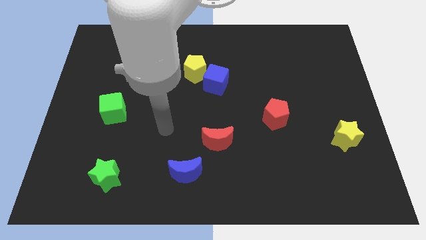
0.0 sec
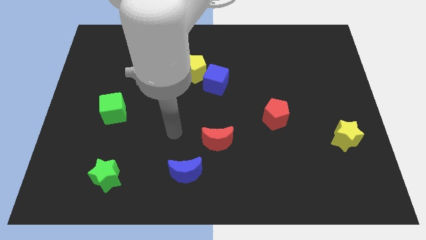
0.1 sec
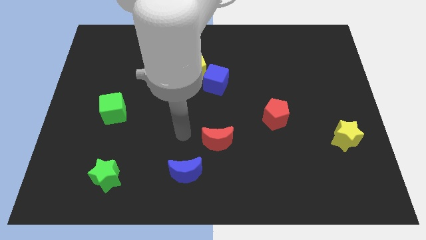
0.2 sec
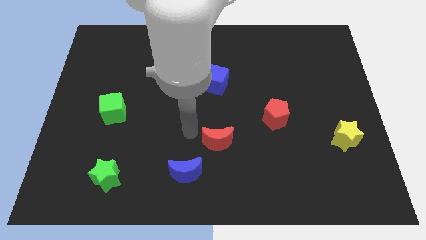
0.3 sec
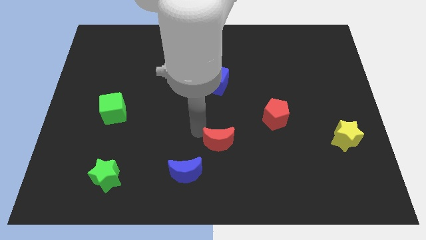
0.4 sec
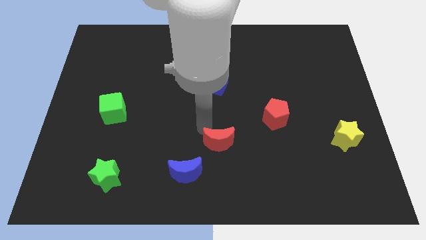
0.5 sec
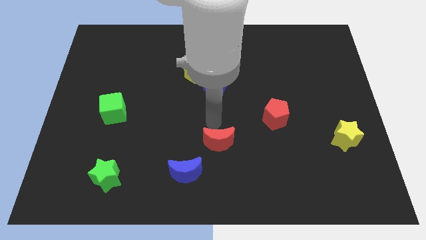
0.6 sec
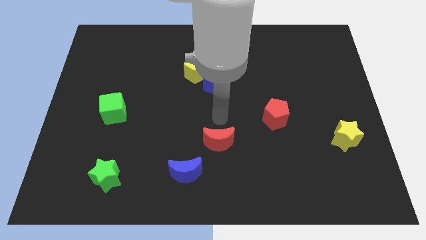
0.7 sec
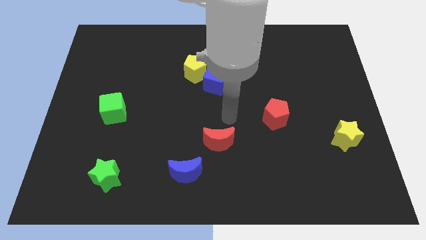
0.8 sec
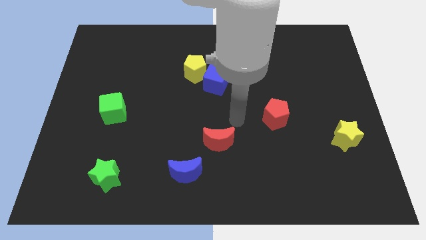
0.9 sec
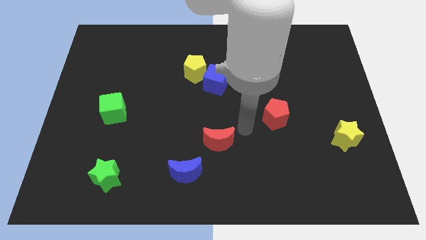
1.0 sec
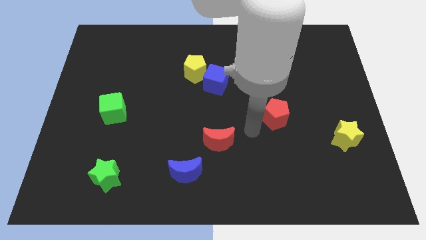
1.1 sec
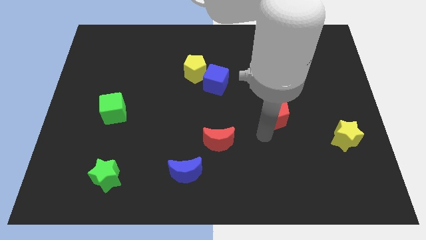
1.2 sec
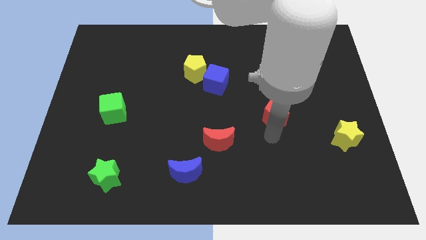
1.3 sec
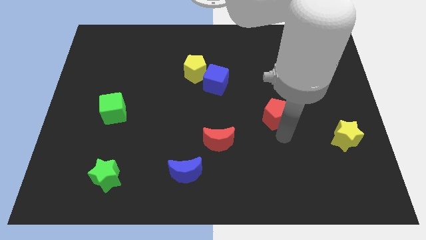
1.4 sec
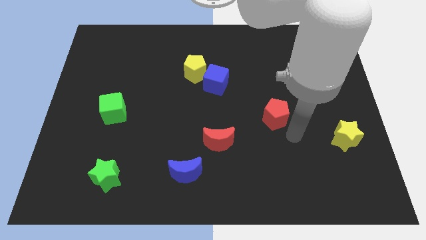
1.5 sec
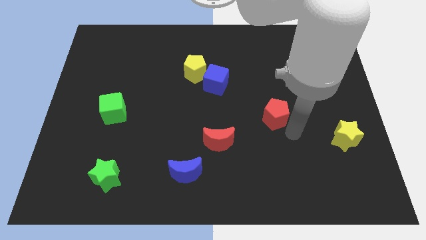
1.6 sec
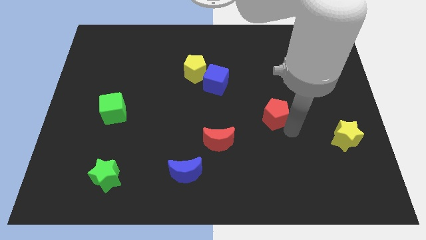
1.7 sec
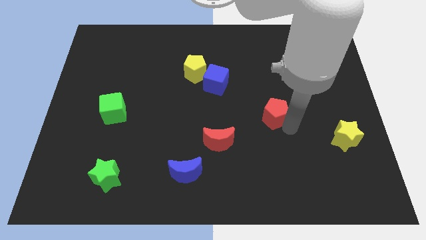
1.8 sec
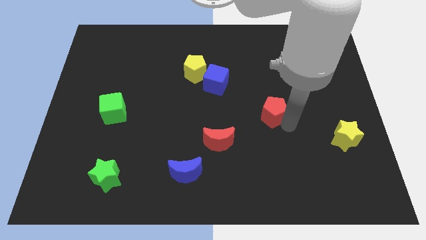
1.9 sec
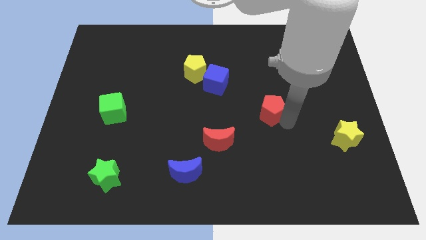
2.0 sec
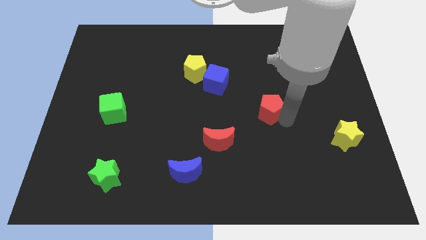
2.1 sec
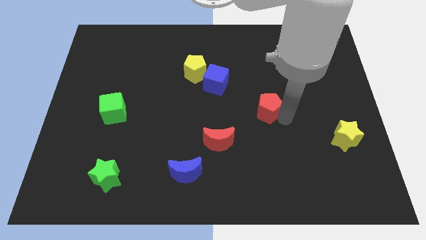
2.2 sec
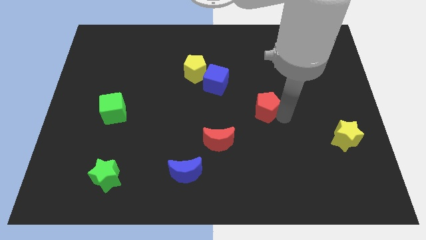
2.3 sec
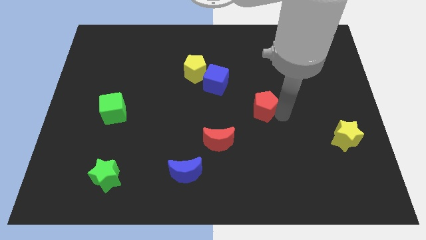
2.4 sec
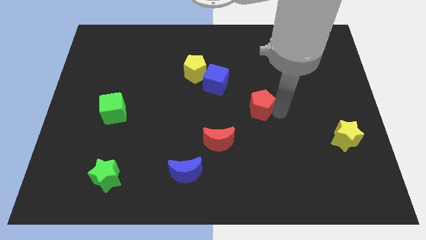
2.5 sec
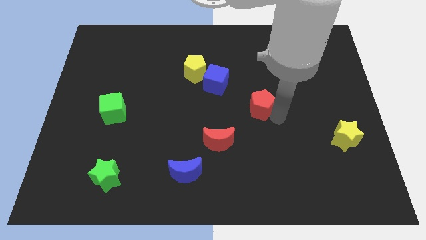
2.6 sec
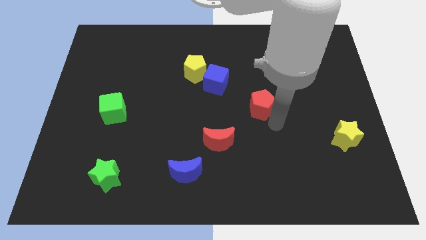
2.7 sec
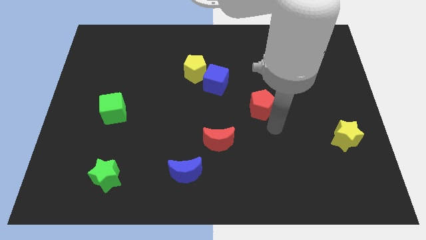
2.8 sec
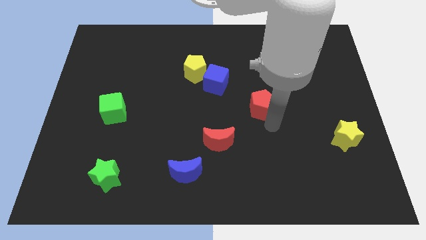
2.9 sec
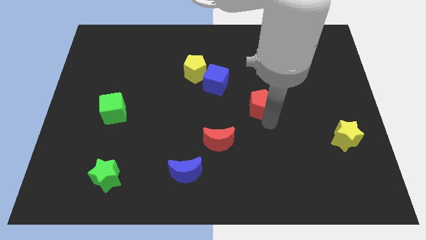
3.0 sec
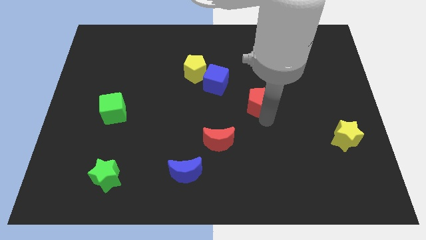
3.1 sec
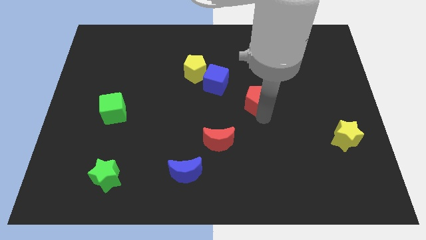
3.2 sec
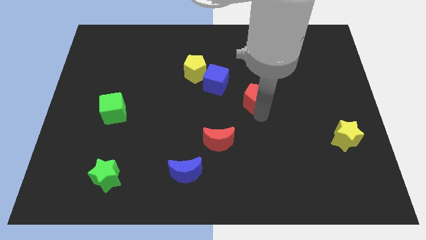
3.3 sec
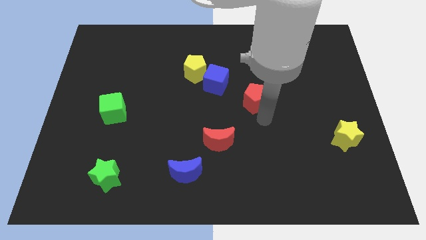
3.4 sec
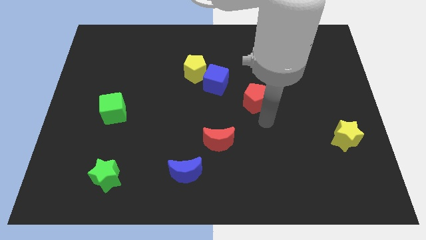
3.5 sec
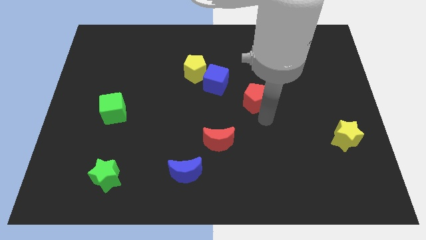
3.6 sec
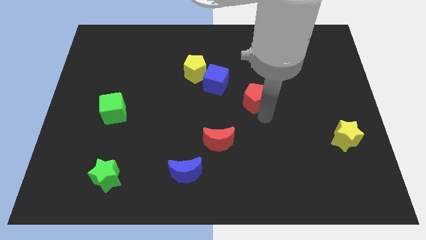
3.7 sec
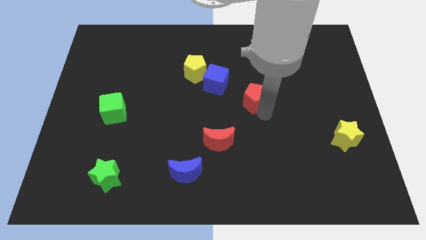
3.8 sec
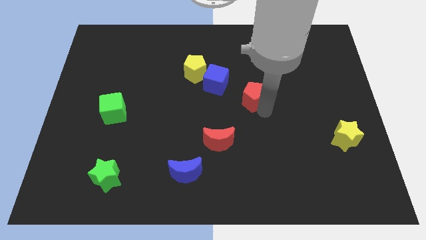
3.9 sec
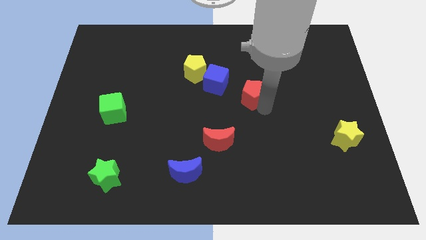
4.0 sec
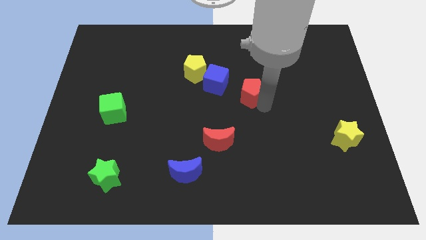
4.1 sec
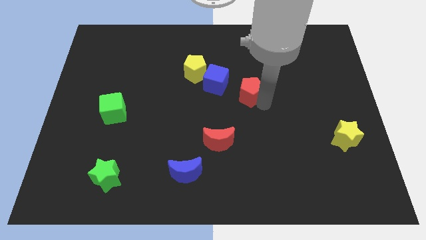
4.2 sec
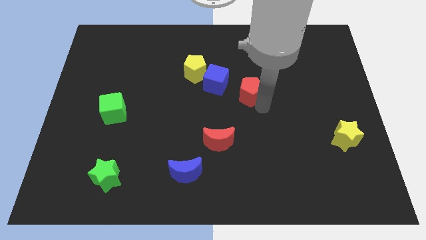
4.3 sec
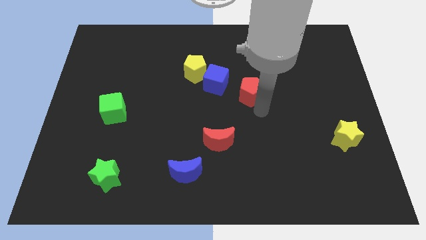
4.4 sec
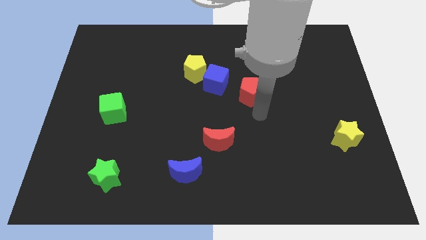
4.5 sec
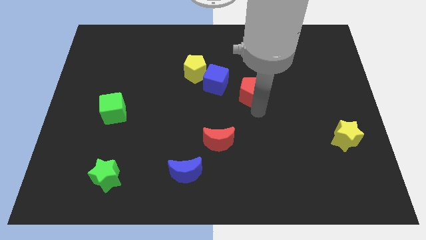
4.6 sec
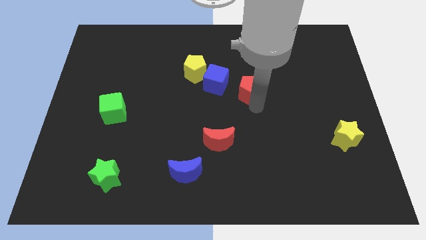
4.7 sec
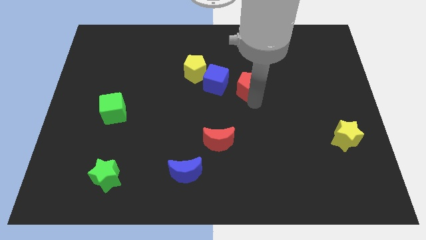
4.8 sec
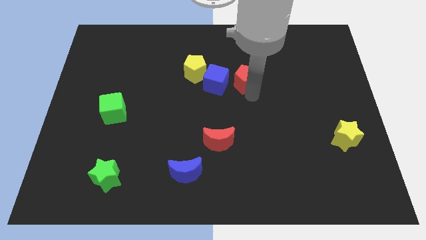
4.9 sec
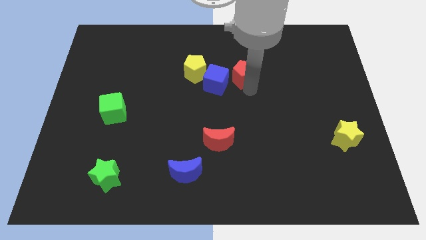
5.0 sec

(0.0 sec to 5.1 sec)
slide the red pentagon to the top right of the blue cube

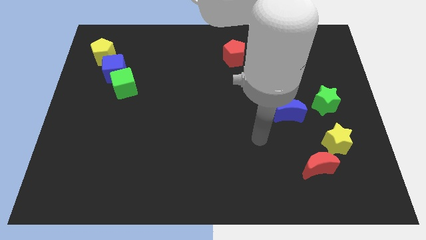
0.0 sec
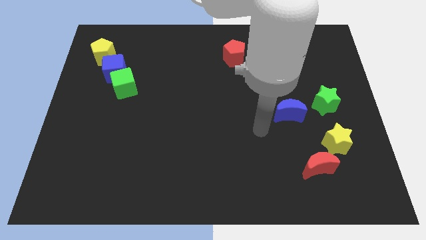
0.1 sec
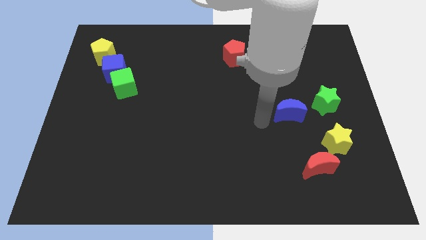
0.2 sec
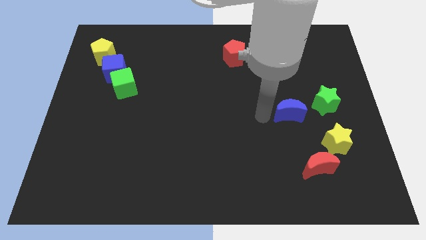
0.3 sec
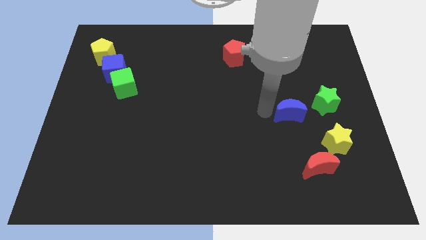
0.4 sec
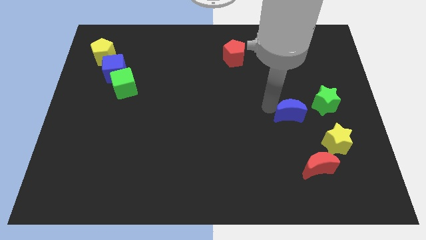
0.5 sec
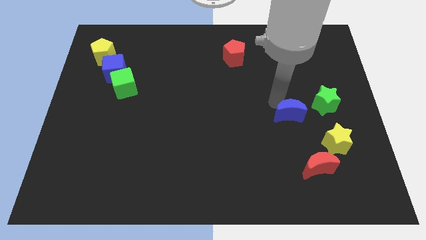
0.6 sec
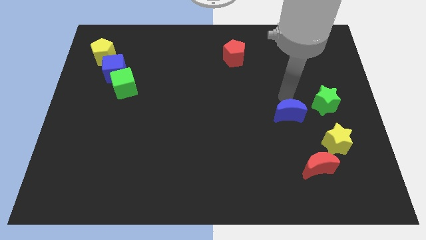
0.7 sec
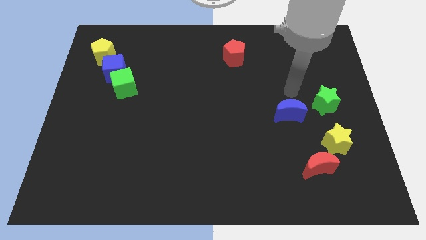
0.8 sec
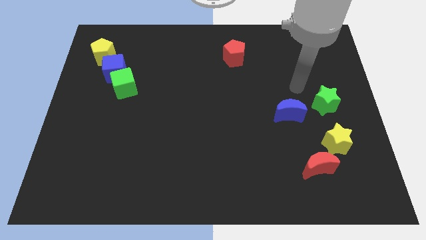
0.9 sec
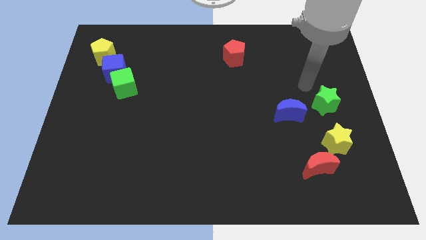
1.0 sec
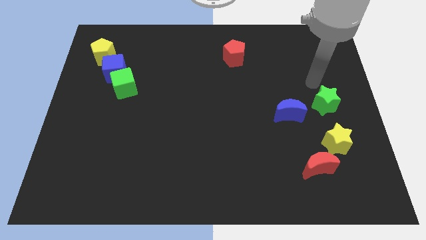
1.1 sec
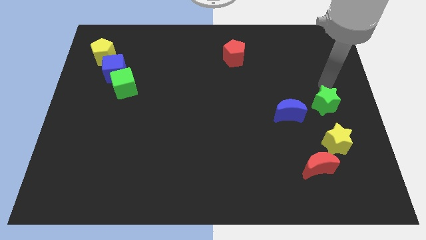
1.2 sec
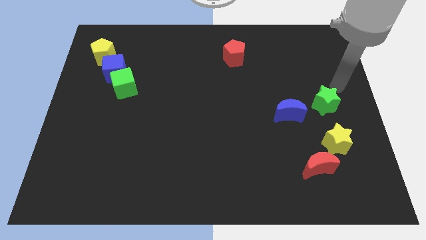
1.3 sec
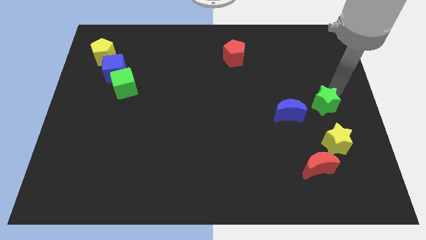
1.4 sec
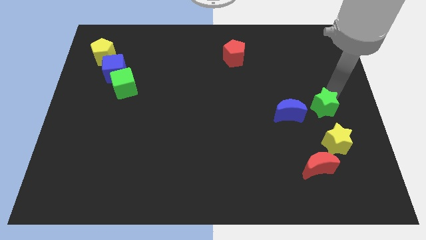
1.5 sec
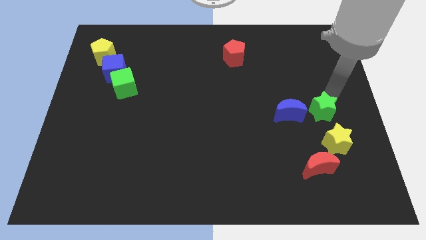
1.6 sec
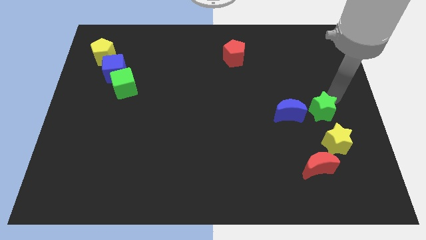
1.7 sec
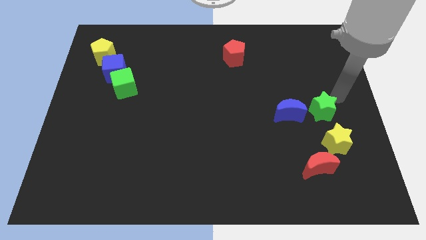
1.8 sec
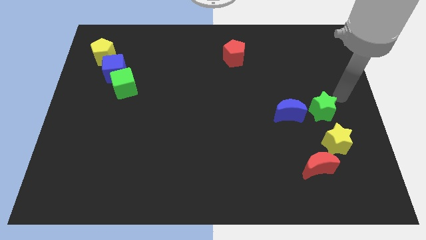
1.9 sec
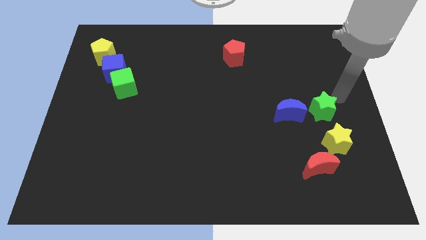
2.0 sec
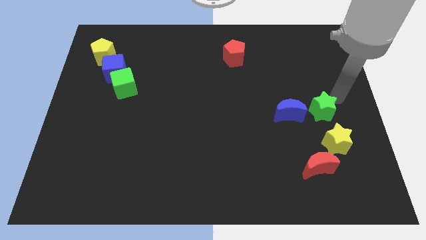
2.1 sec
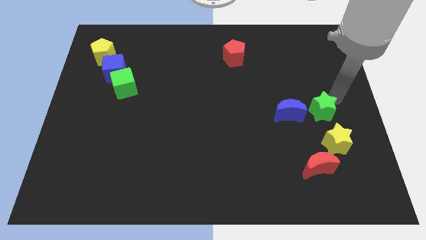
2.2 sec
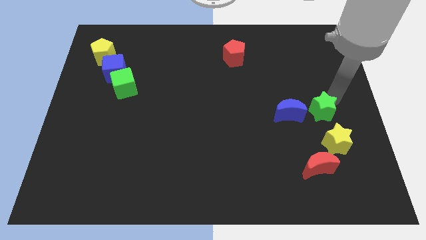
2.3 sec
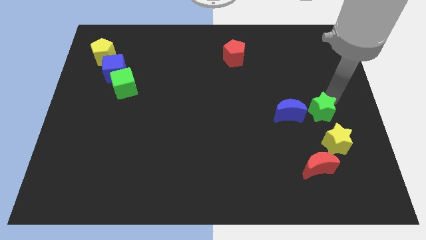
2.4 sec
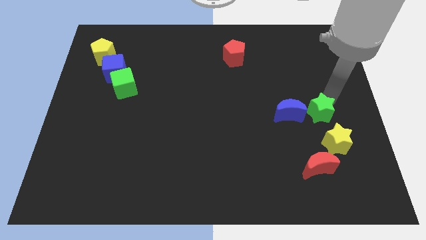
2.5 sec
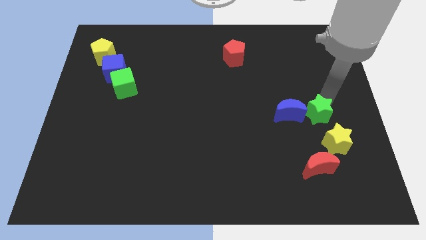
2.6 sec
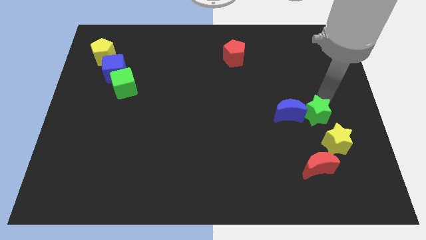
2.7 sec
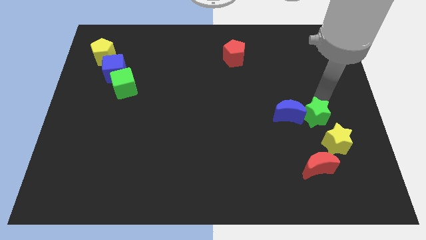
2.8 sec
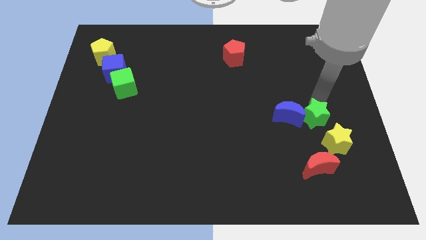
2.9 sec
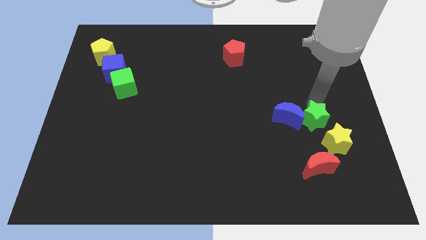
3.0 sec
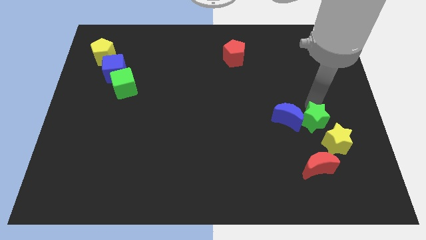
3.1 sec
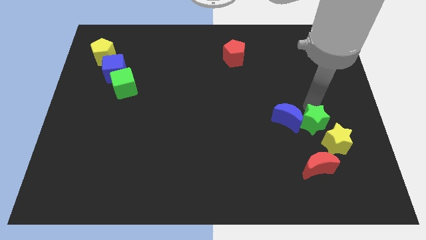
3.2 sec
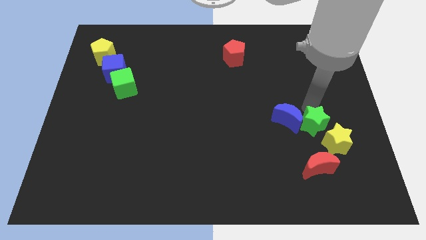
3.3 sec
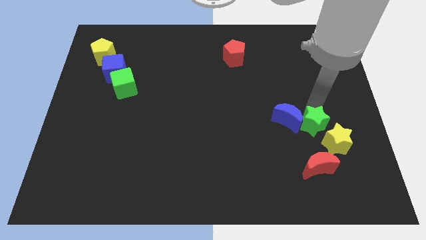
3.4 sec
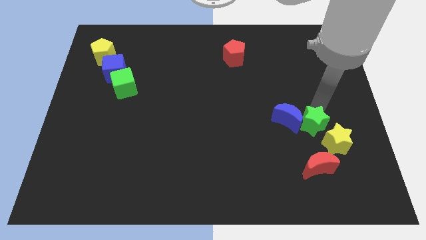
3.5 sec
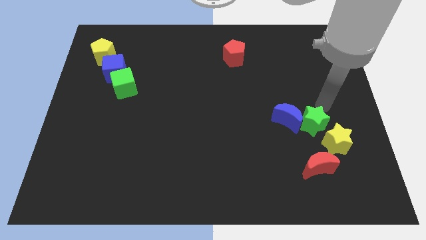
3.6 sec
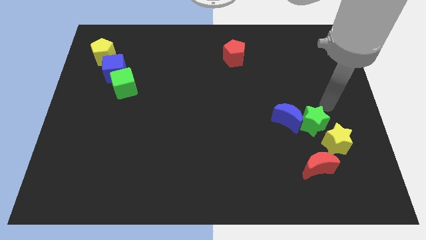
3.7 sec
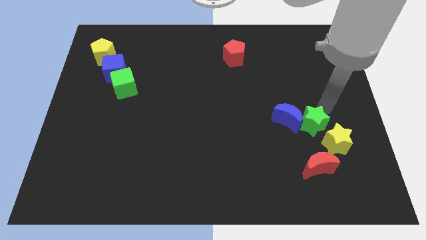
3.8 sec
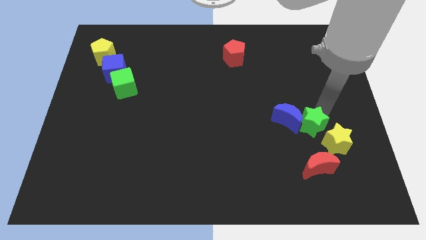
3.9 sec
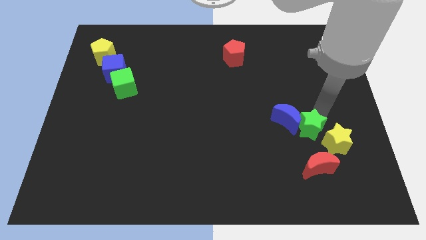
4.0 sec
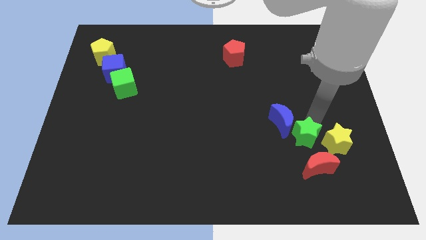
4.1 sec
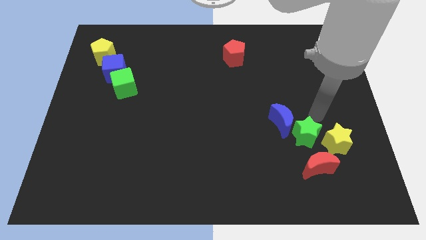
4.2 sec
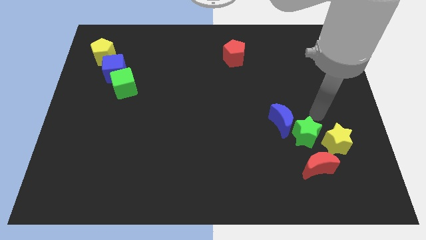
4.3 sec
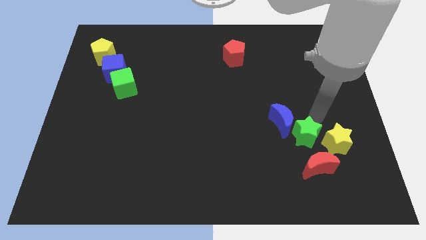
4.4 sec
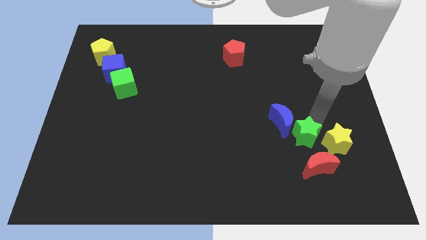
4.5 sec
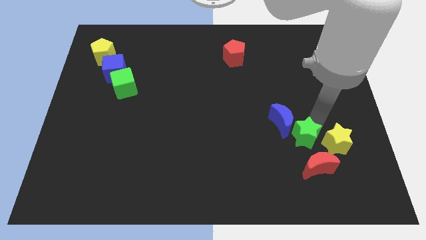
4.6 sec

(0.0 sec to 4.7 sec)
slide the green star to the bottom side of the blue moon
